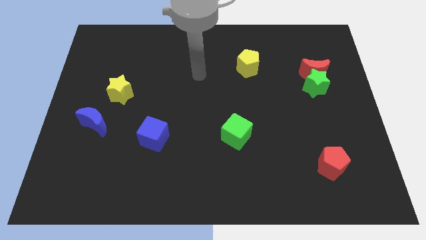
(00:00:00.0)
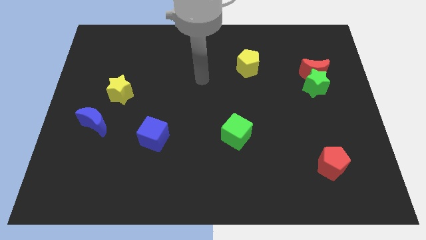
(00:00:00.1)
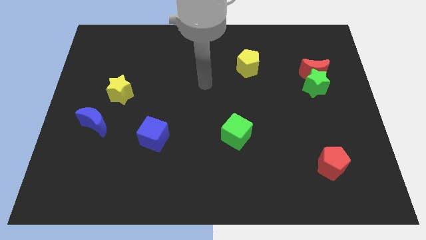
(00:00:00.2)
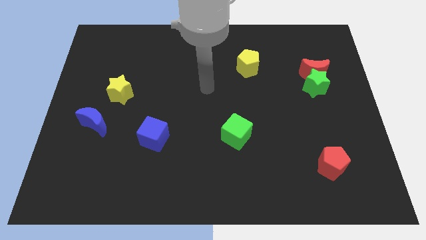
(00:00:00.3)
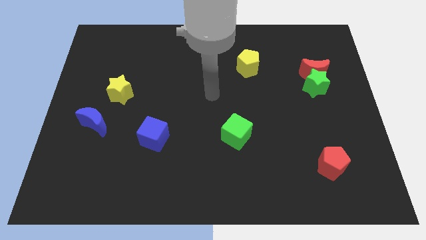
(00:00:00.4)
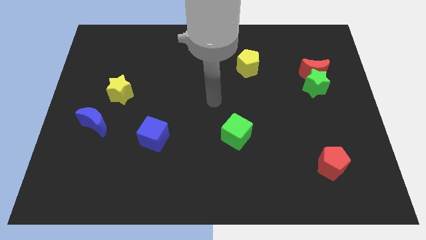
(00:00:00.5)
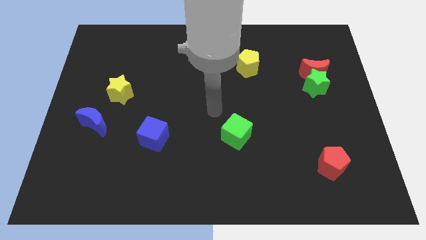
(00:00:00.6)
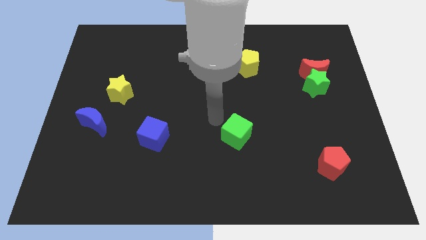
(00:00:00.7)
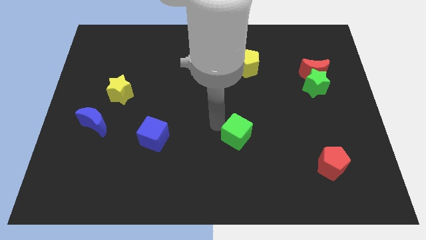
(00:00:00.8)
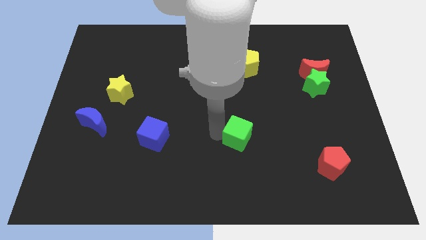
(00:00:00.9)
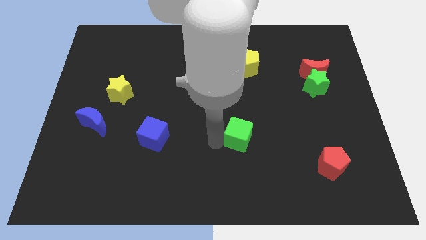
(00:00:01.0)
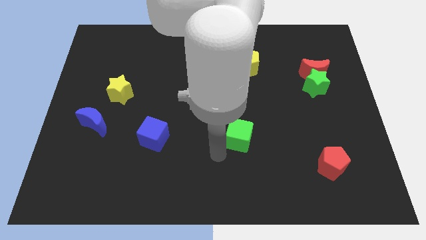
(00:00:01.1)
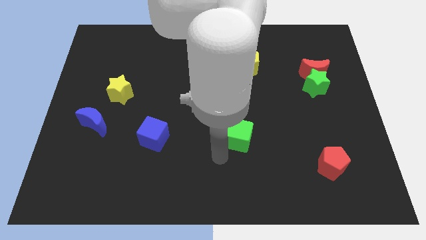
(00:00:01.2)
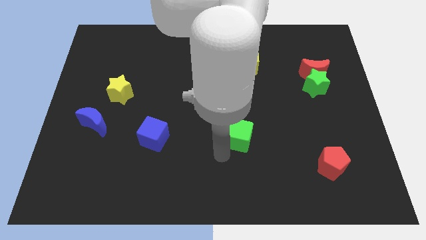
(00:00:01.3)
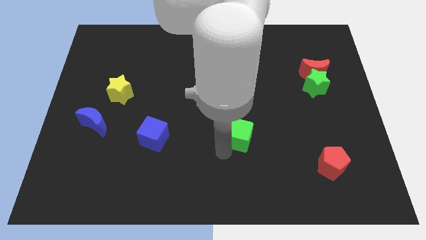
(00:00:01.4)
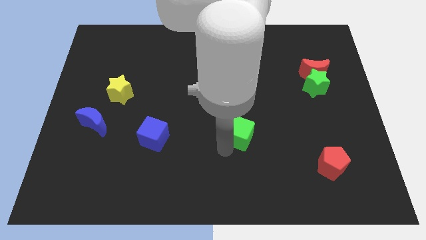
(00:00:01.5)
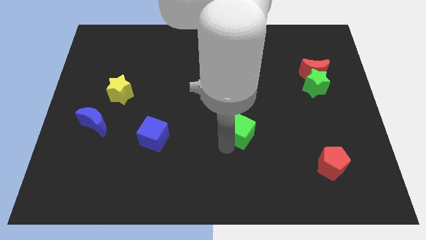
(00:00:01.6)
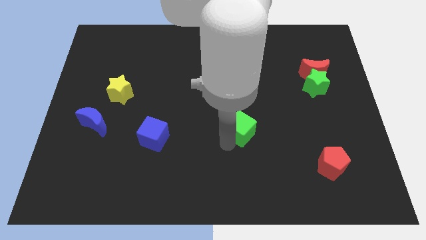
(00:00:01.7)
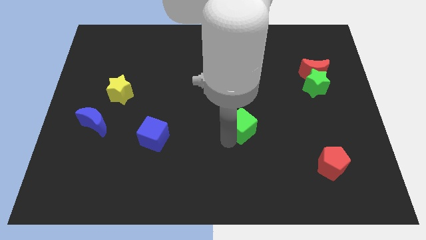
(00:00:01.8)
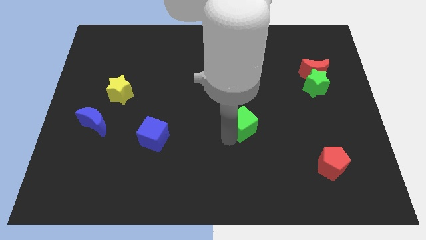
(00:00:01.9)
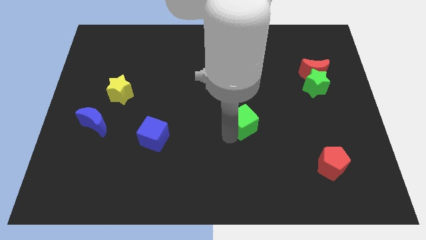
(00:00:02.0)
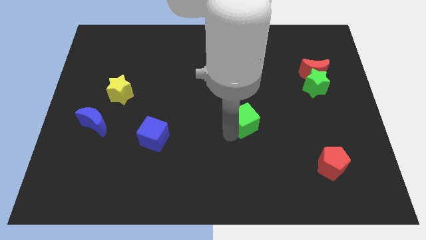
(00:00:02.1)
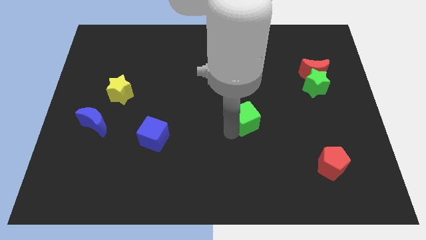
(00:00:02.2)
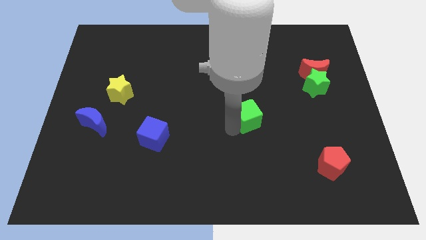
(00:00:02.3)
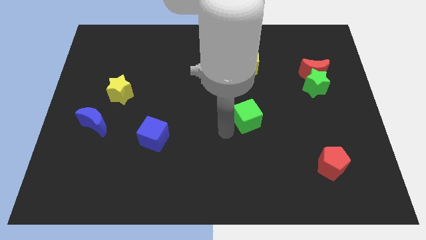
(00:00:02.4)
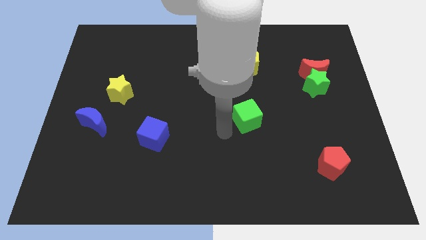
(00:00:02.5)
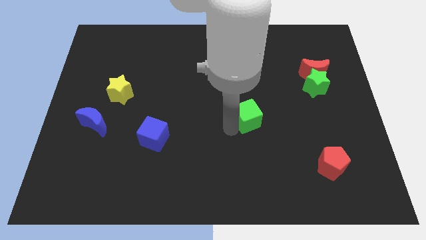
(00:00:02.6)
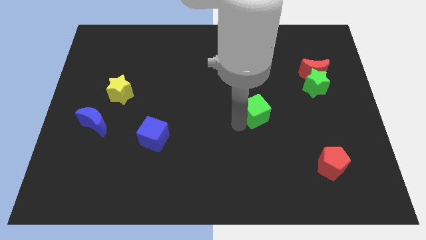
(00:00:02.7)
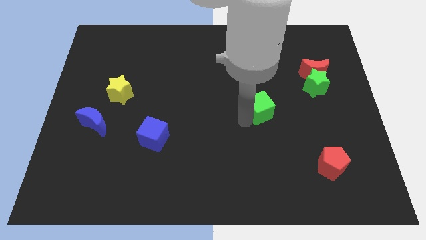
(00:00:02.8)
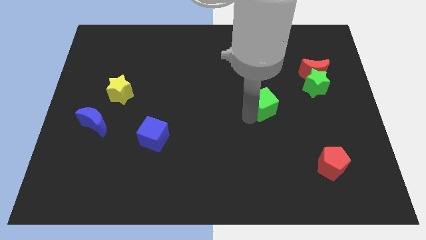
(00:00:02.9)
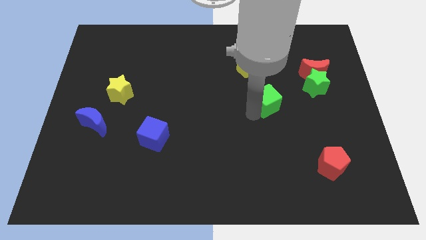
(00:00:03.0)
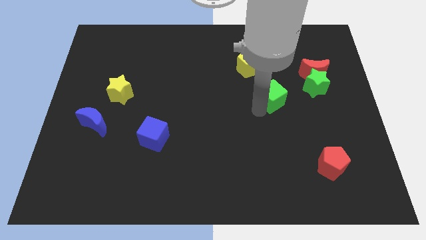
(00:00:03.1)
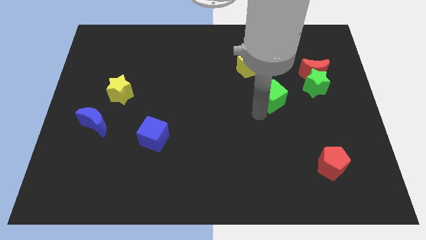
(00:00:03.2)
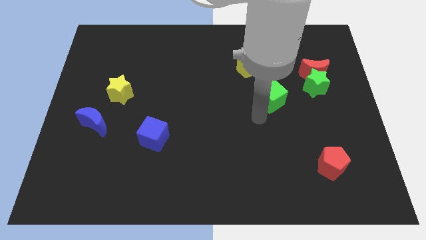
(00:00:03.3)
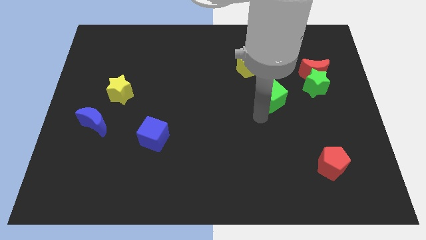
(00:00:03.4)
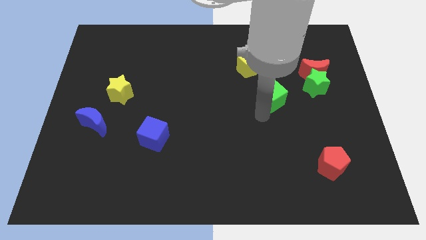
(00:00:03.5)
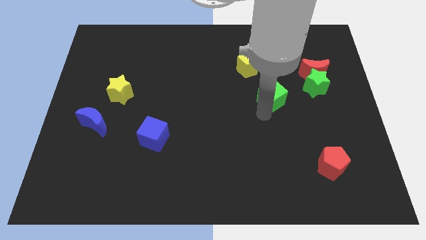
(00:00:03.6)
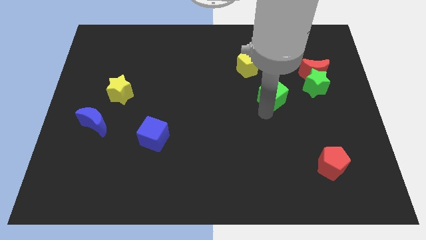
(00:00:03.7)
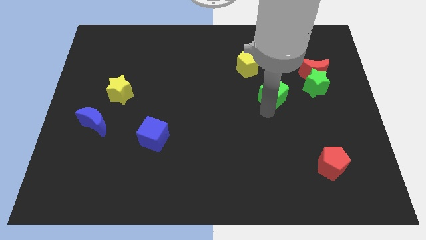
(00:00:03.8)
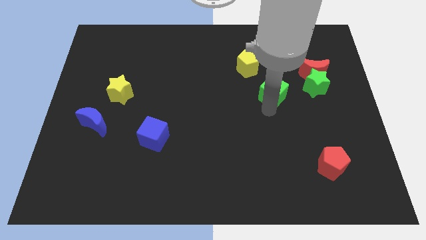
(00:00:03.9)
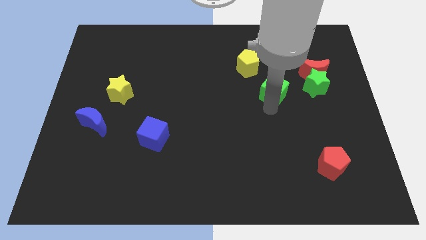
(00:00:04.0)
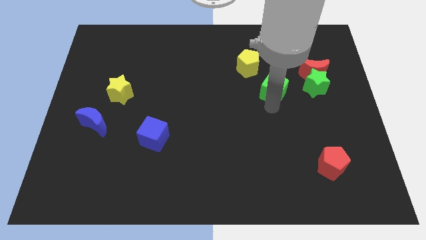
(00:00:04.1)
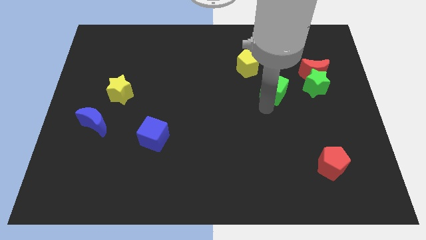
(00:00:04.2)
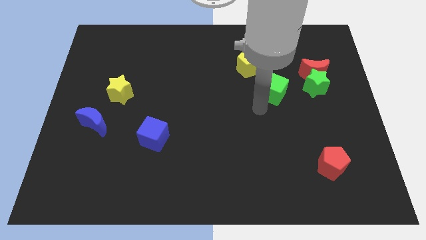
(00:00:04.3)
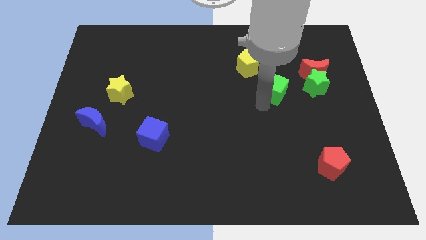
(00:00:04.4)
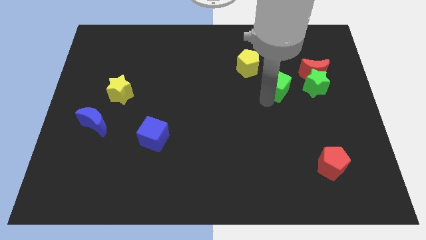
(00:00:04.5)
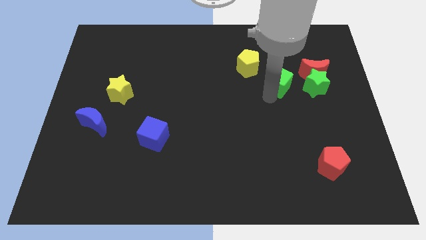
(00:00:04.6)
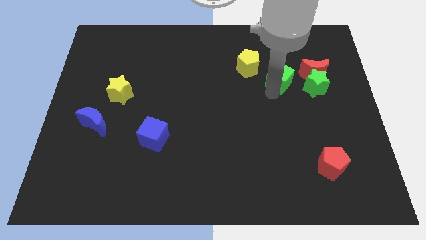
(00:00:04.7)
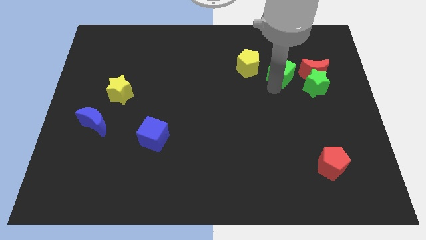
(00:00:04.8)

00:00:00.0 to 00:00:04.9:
move the green cube up and right

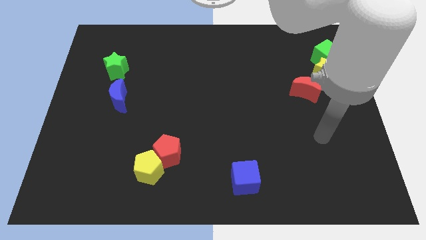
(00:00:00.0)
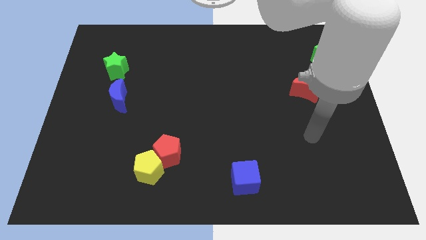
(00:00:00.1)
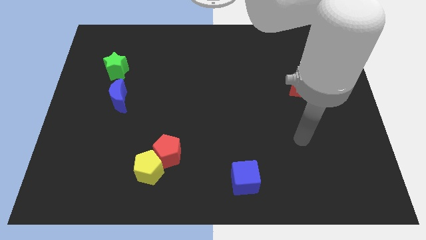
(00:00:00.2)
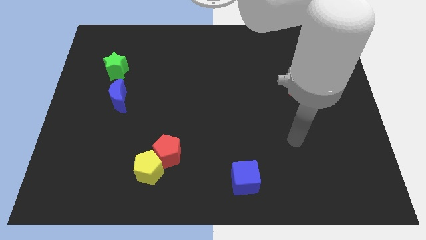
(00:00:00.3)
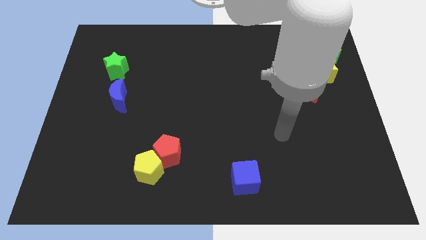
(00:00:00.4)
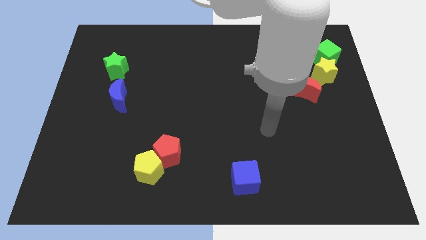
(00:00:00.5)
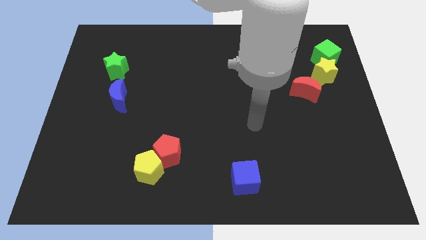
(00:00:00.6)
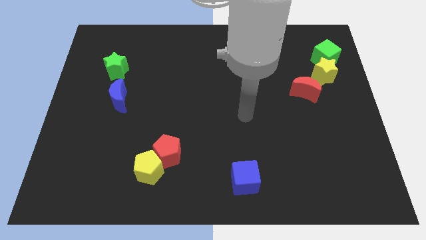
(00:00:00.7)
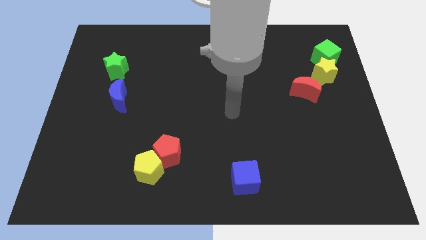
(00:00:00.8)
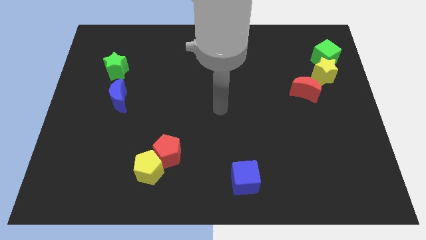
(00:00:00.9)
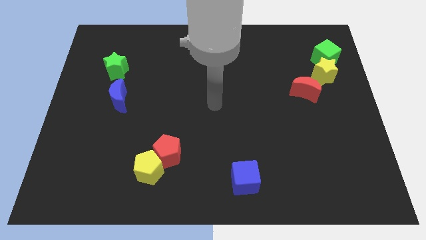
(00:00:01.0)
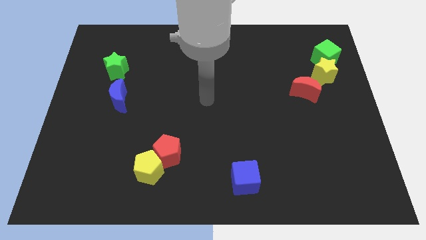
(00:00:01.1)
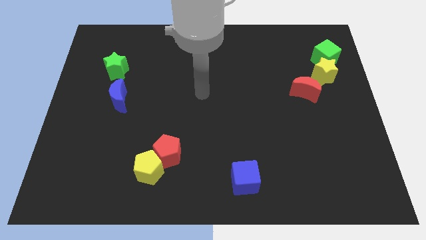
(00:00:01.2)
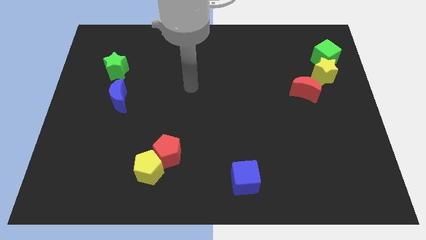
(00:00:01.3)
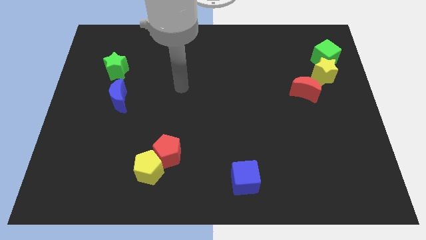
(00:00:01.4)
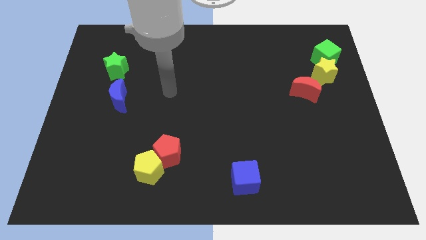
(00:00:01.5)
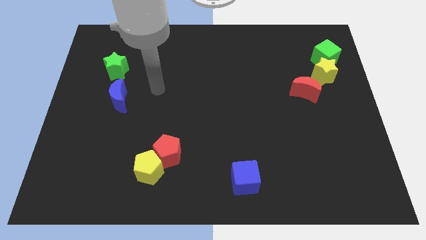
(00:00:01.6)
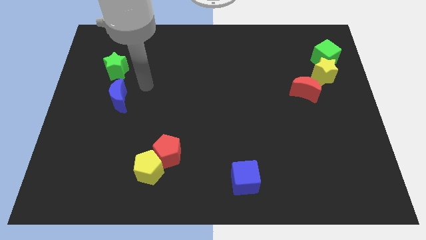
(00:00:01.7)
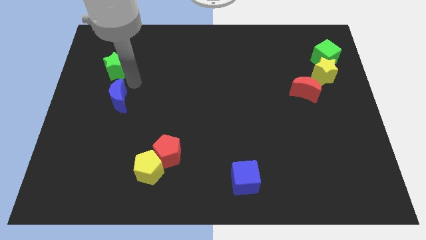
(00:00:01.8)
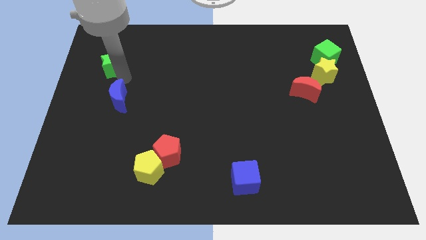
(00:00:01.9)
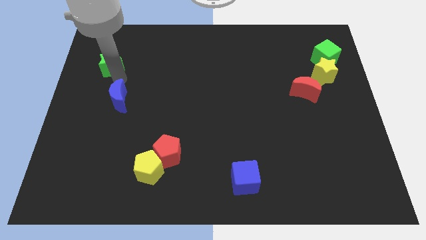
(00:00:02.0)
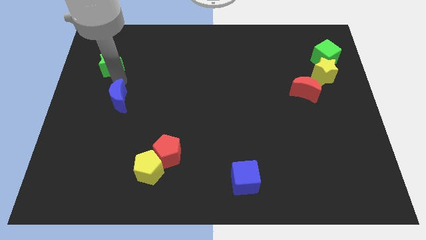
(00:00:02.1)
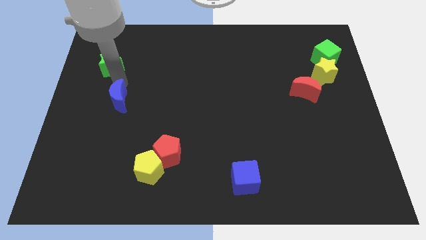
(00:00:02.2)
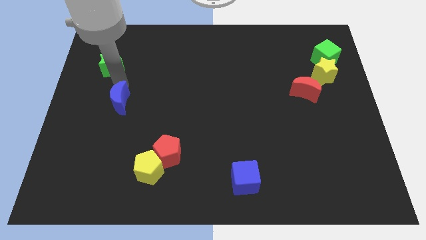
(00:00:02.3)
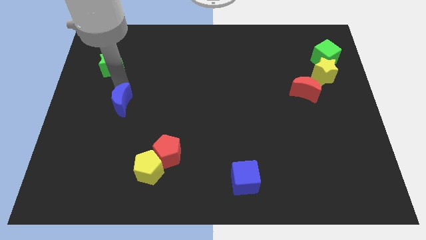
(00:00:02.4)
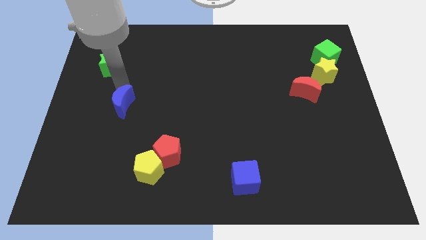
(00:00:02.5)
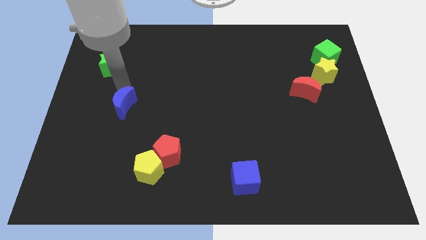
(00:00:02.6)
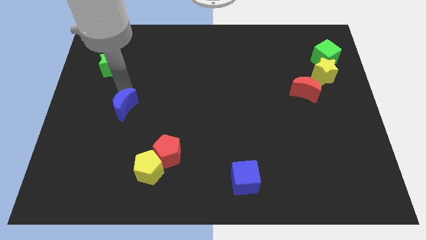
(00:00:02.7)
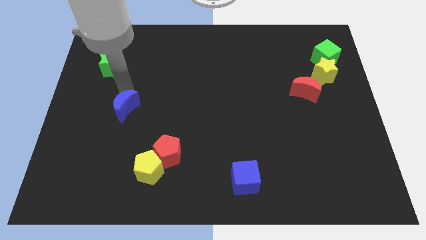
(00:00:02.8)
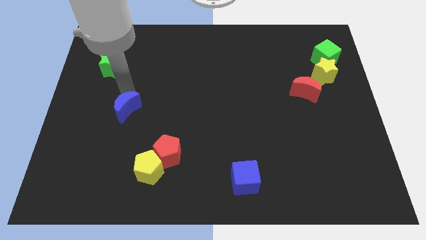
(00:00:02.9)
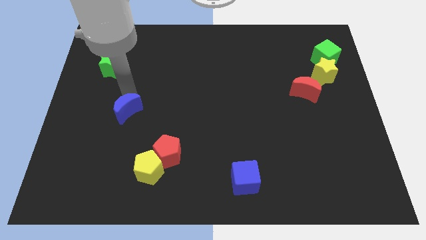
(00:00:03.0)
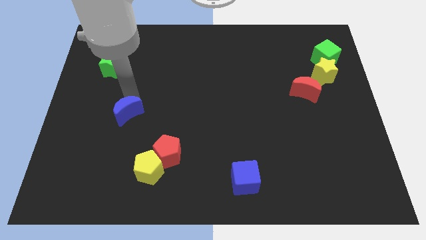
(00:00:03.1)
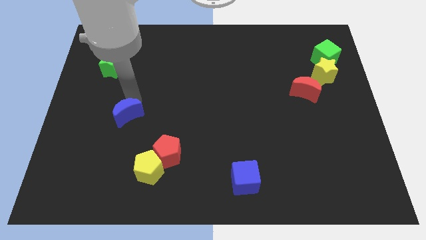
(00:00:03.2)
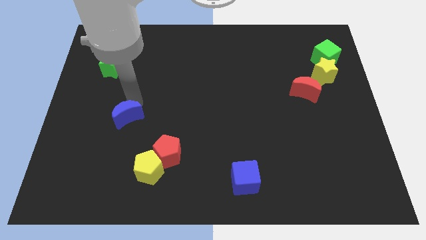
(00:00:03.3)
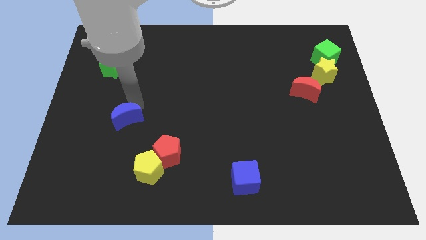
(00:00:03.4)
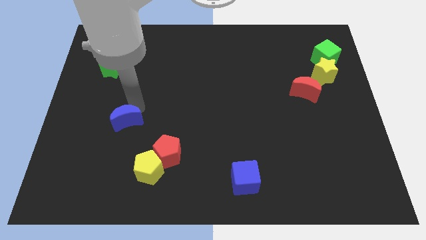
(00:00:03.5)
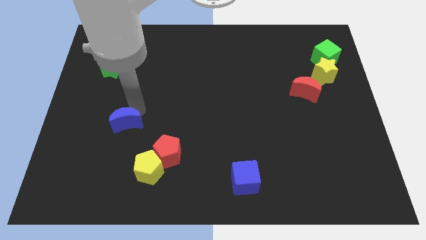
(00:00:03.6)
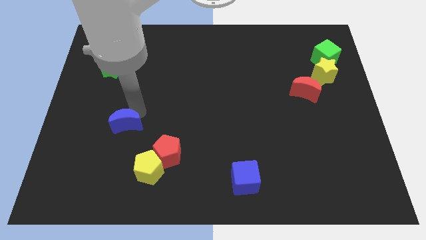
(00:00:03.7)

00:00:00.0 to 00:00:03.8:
push the blue moon down a little
